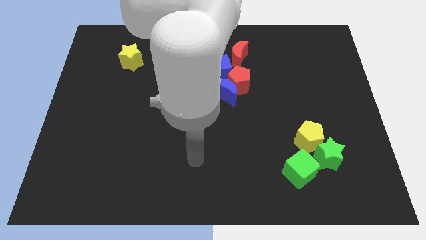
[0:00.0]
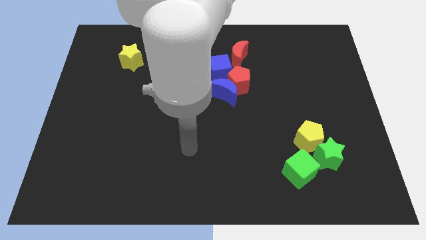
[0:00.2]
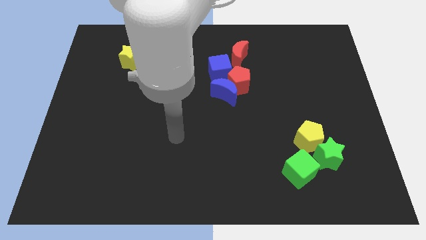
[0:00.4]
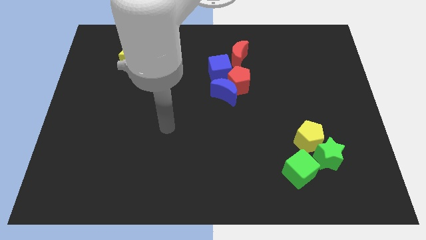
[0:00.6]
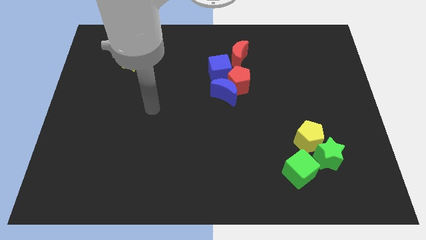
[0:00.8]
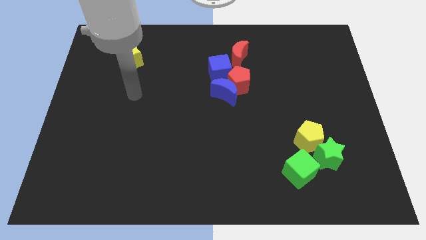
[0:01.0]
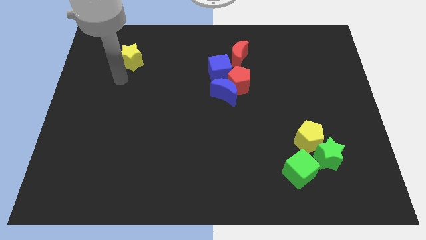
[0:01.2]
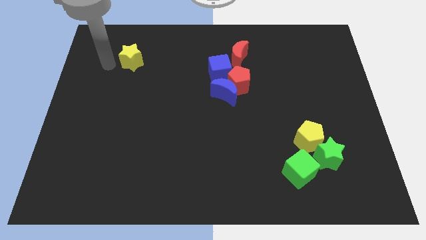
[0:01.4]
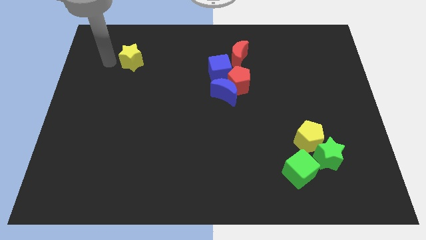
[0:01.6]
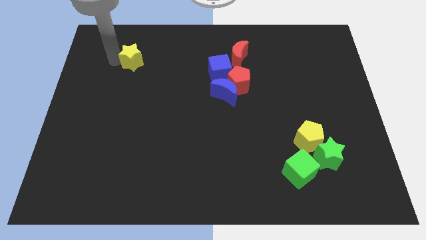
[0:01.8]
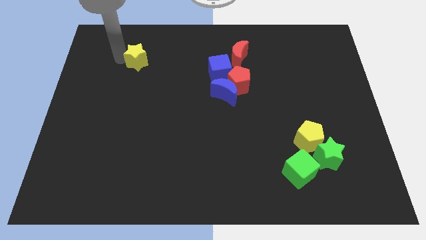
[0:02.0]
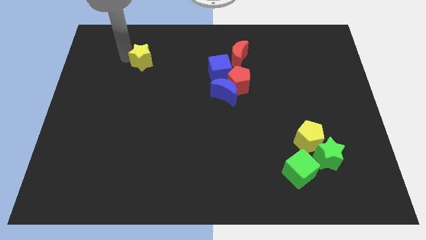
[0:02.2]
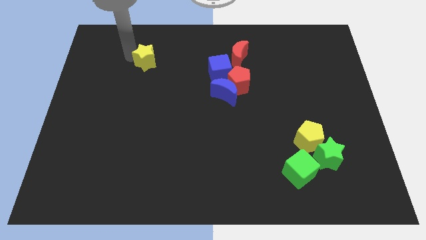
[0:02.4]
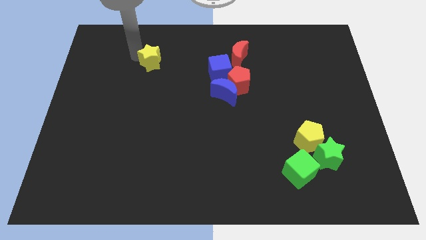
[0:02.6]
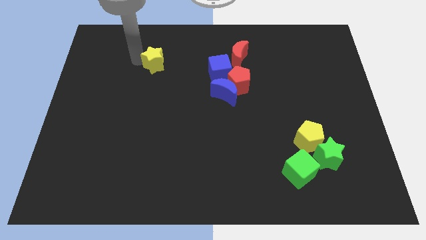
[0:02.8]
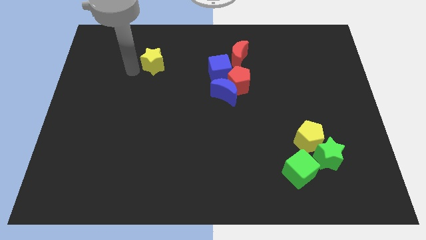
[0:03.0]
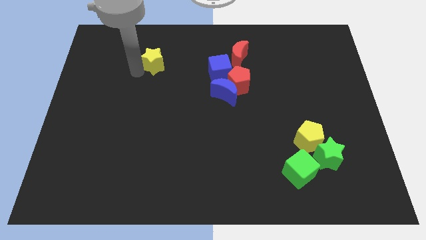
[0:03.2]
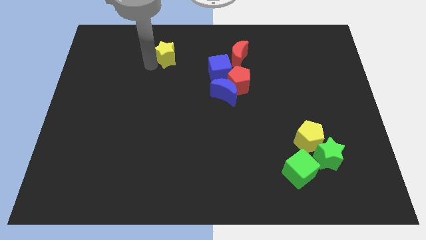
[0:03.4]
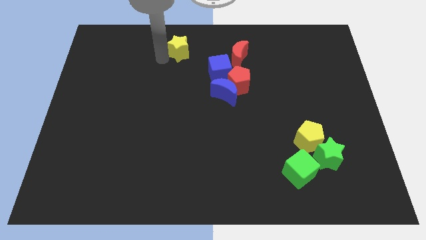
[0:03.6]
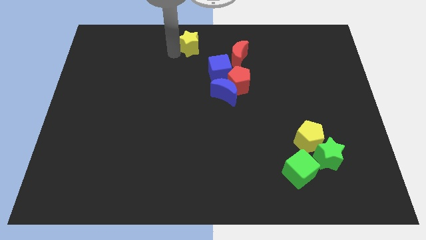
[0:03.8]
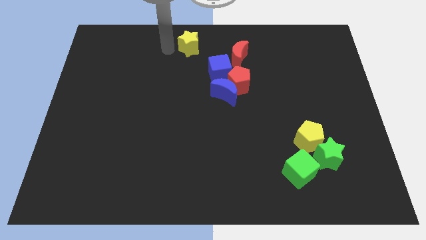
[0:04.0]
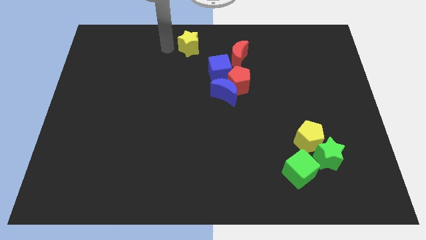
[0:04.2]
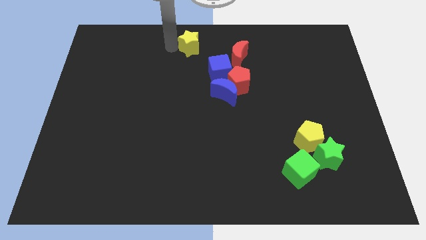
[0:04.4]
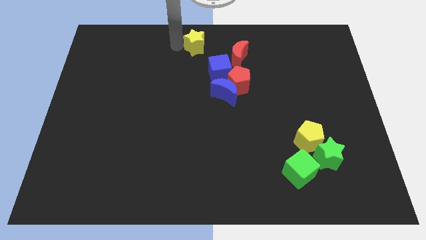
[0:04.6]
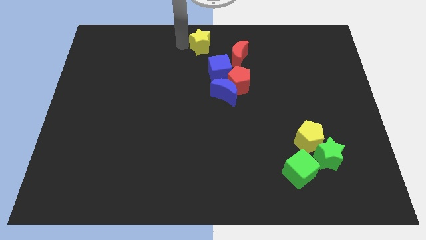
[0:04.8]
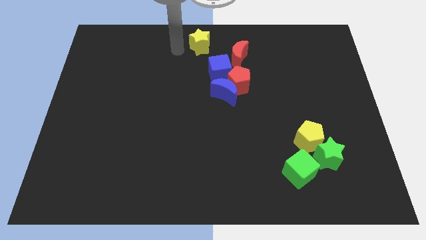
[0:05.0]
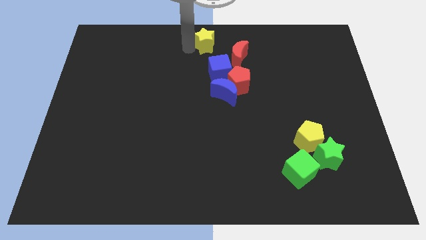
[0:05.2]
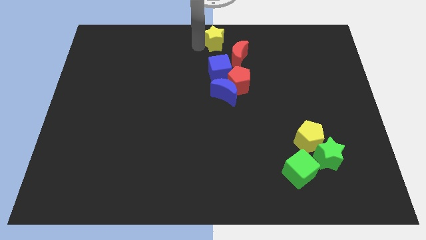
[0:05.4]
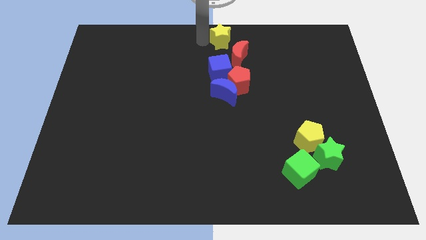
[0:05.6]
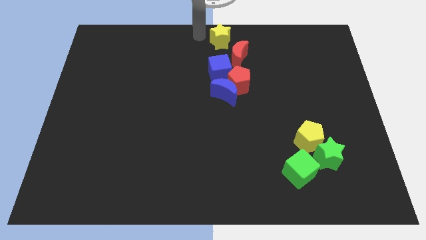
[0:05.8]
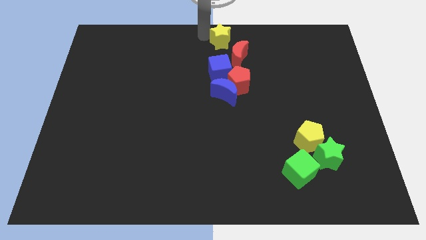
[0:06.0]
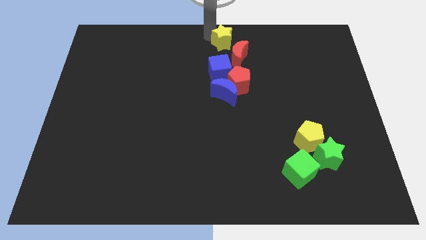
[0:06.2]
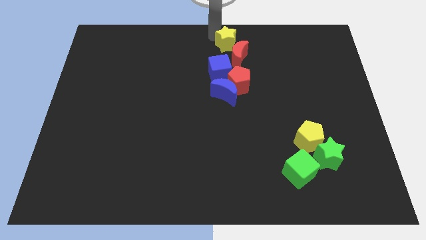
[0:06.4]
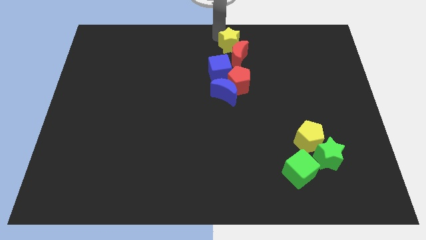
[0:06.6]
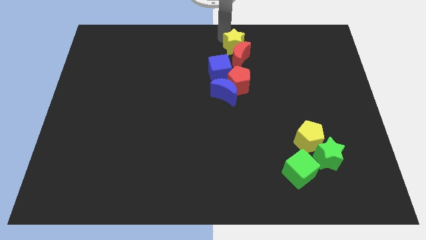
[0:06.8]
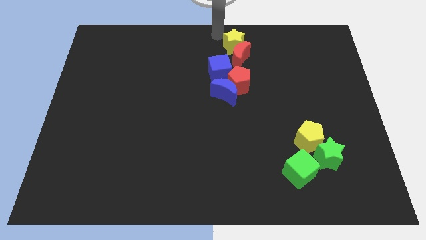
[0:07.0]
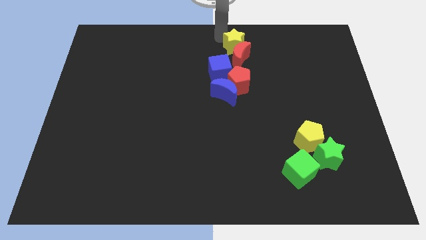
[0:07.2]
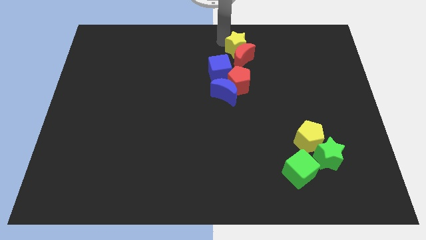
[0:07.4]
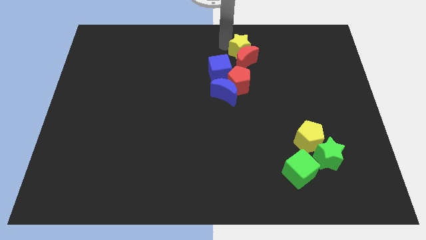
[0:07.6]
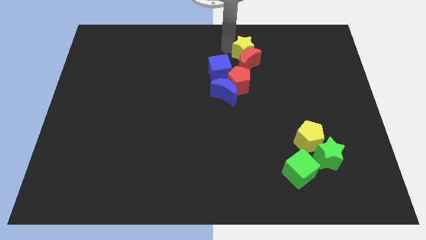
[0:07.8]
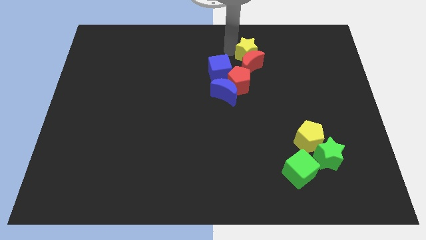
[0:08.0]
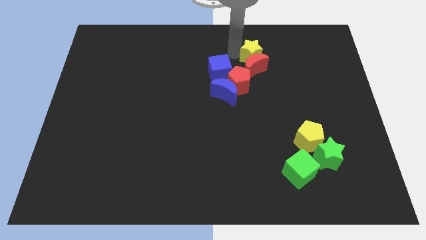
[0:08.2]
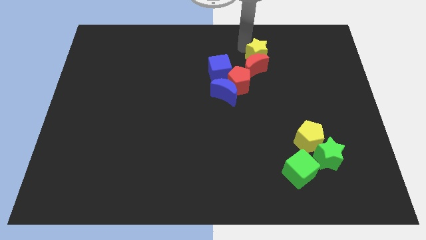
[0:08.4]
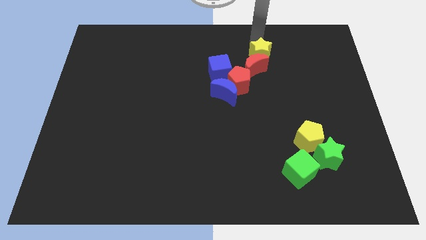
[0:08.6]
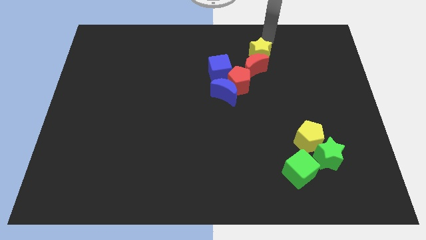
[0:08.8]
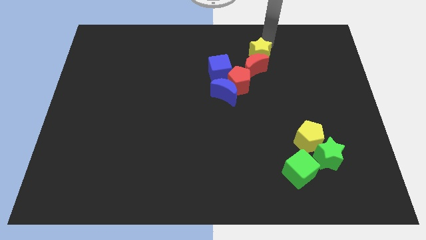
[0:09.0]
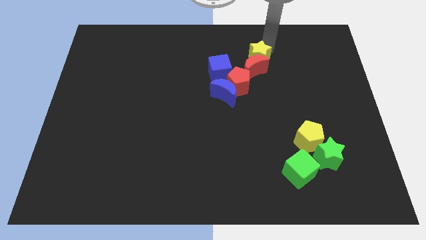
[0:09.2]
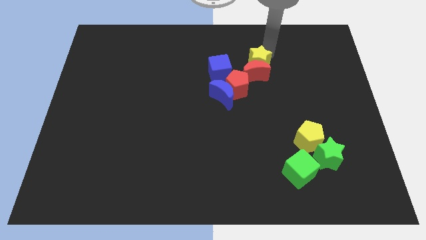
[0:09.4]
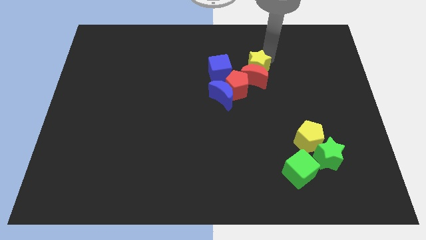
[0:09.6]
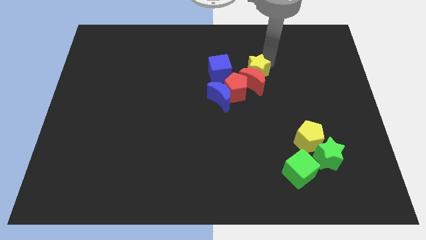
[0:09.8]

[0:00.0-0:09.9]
slide the yellow star to the top right of the blue moon

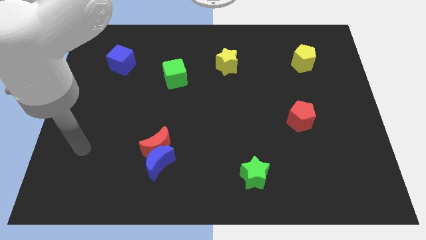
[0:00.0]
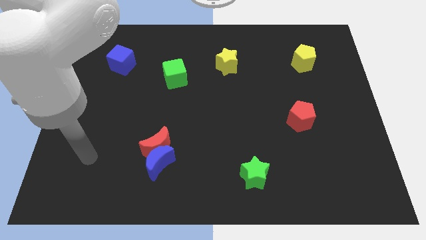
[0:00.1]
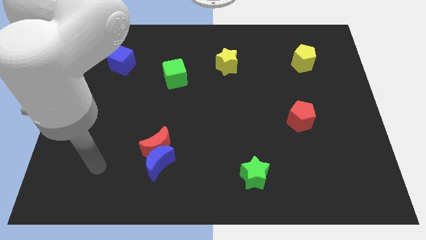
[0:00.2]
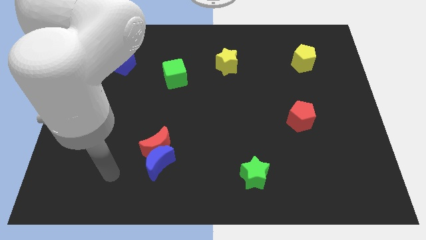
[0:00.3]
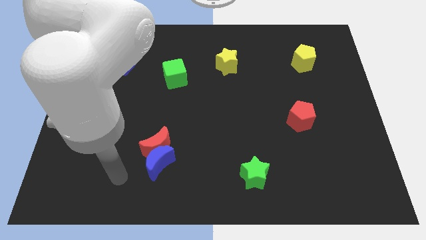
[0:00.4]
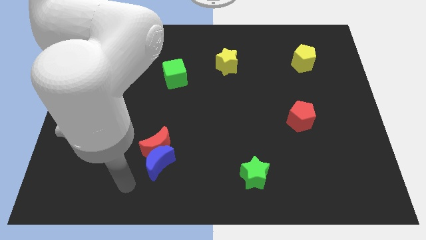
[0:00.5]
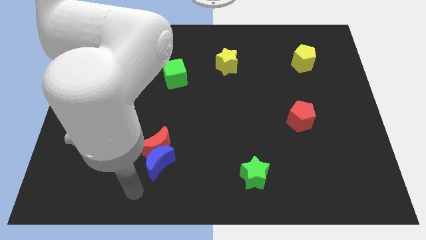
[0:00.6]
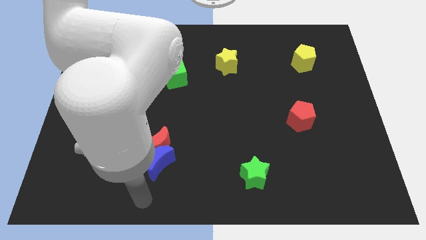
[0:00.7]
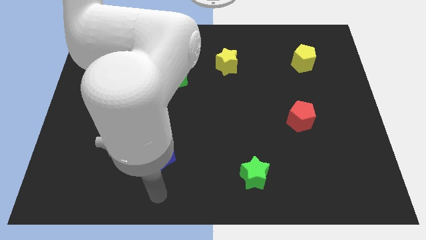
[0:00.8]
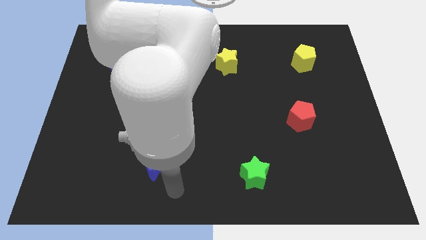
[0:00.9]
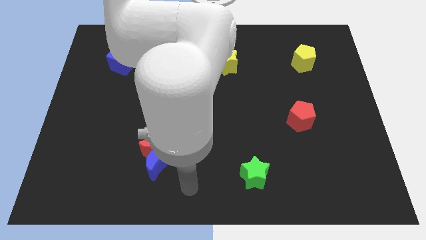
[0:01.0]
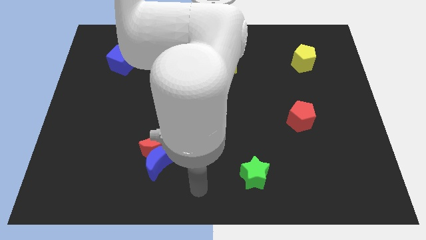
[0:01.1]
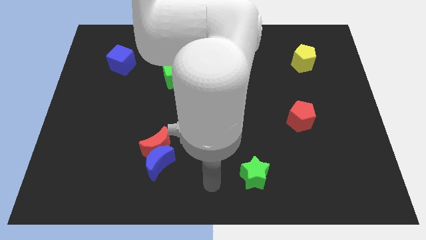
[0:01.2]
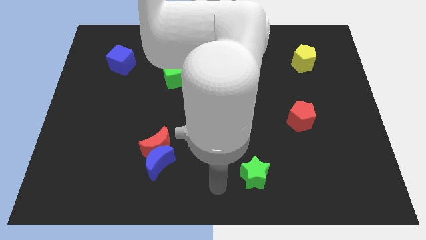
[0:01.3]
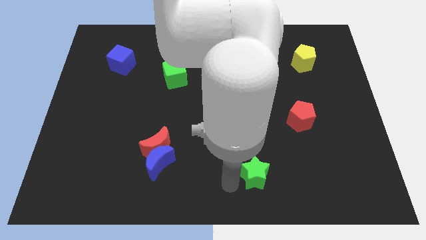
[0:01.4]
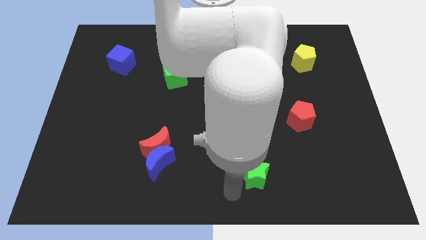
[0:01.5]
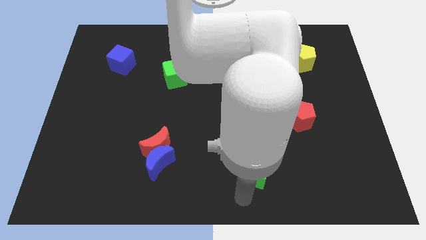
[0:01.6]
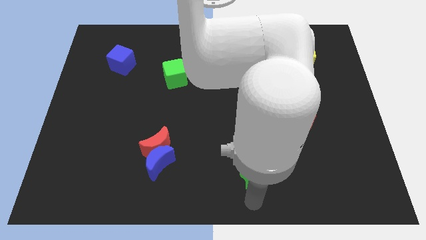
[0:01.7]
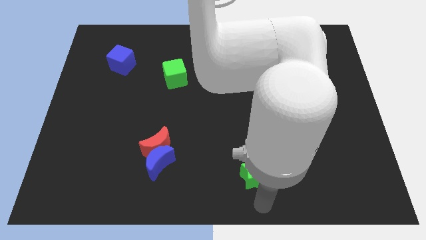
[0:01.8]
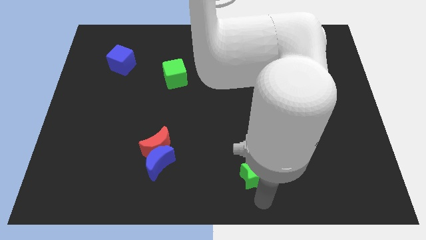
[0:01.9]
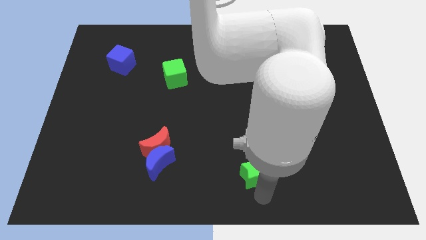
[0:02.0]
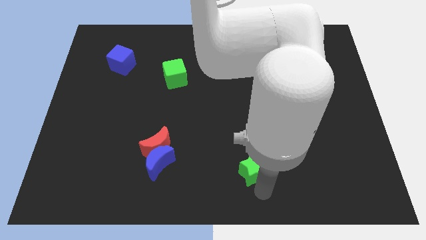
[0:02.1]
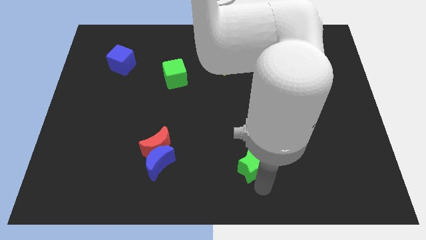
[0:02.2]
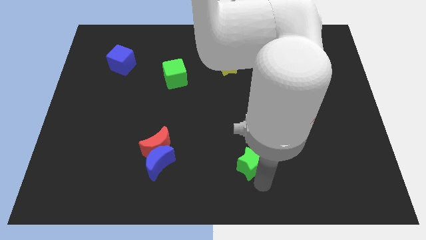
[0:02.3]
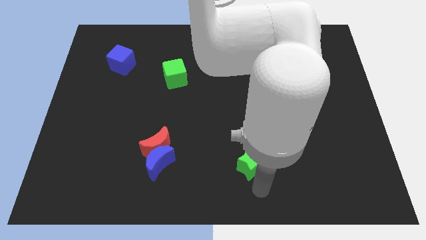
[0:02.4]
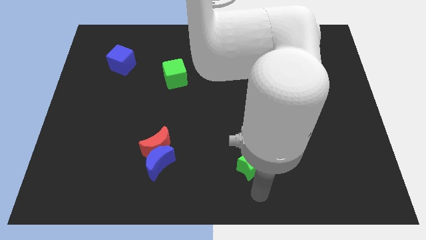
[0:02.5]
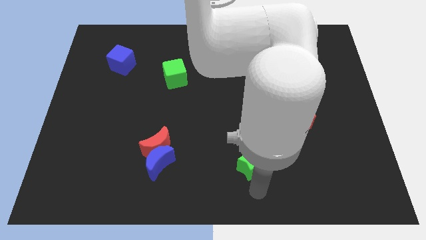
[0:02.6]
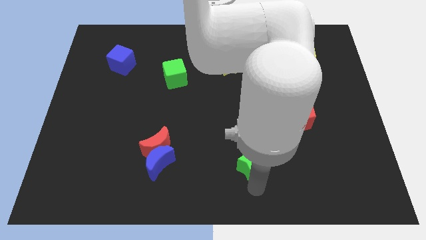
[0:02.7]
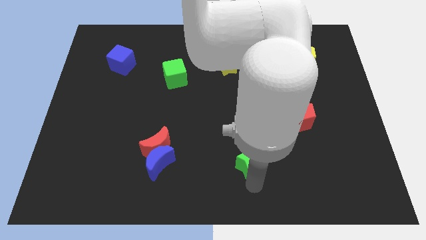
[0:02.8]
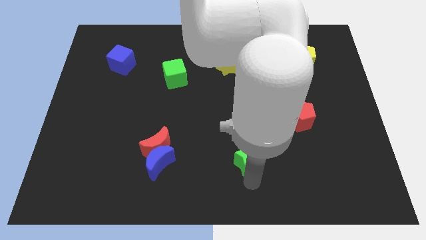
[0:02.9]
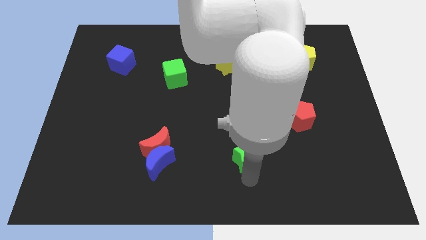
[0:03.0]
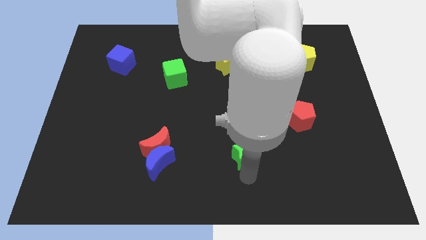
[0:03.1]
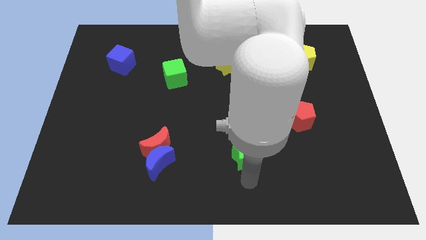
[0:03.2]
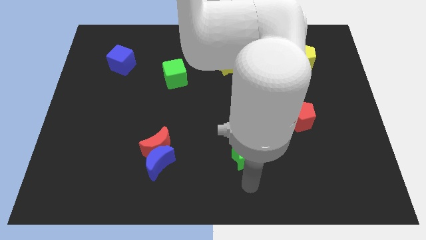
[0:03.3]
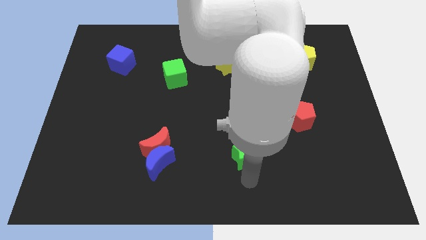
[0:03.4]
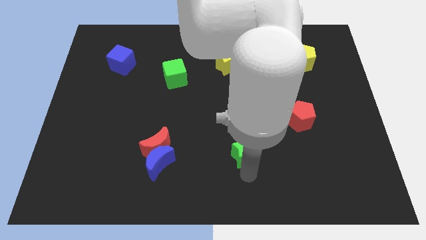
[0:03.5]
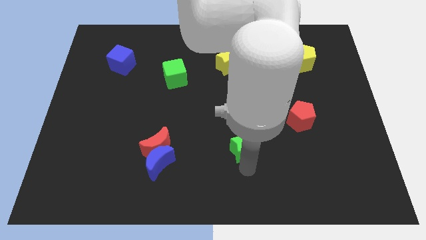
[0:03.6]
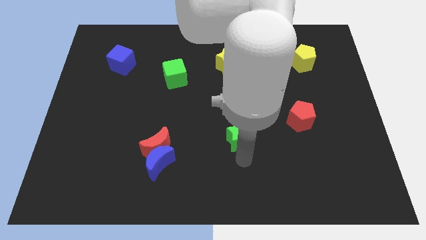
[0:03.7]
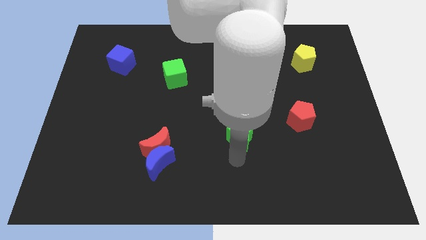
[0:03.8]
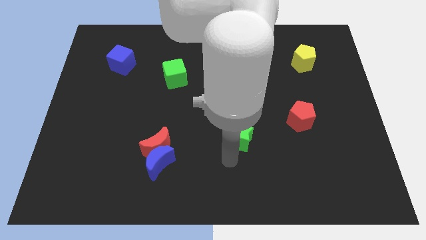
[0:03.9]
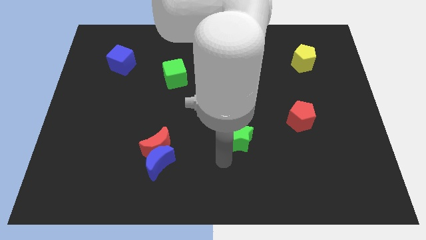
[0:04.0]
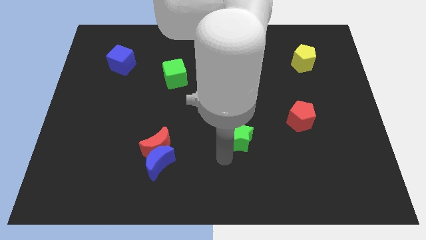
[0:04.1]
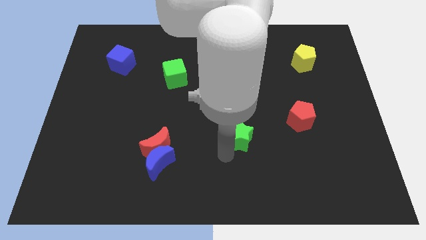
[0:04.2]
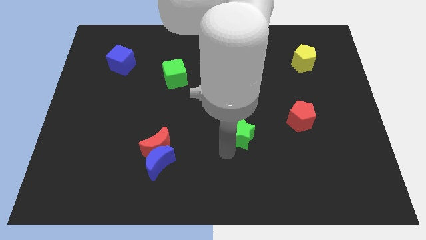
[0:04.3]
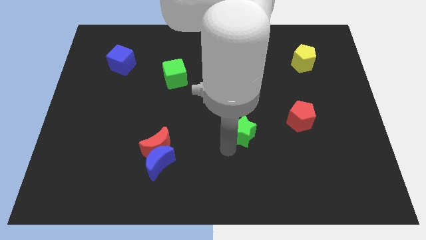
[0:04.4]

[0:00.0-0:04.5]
push the green star to the left of the red pentagon
